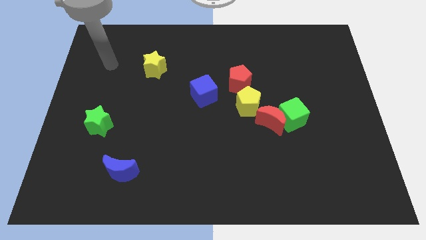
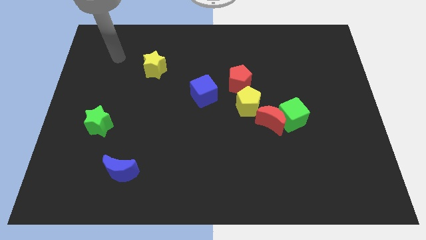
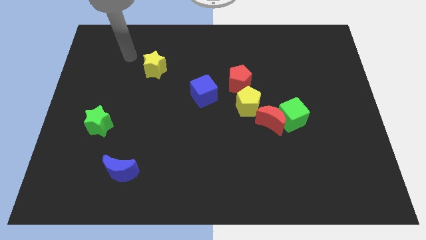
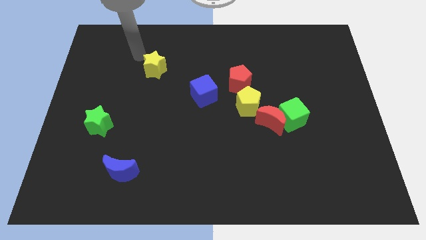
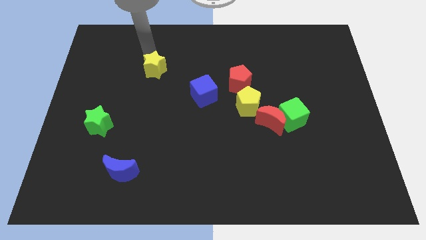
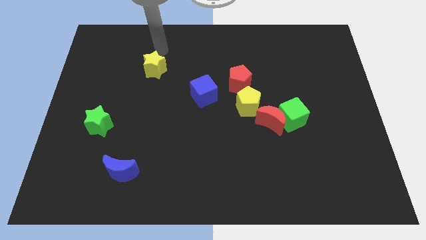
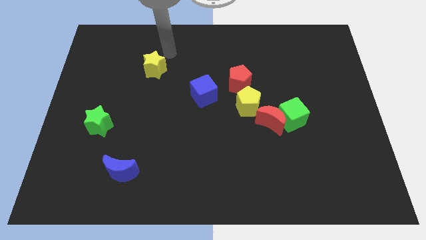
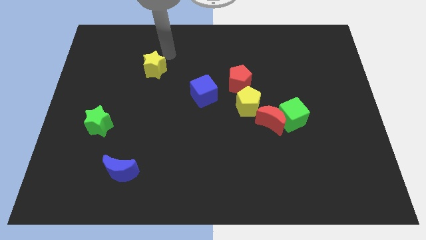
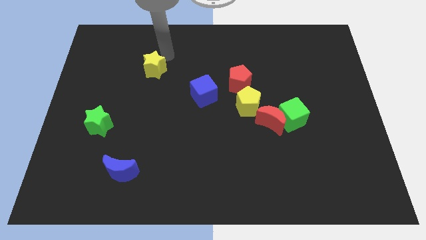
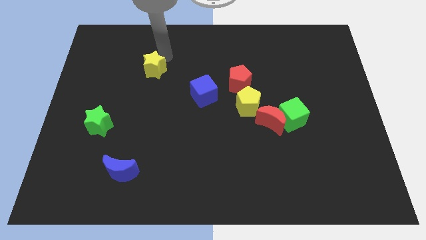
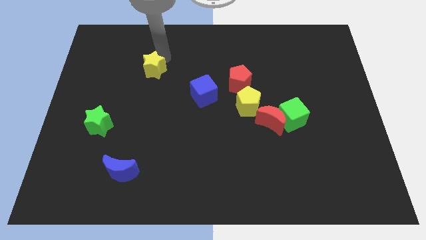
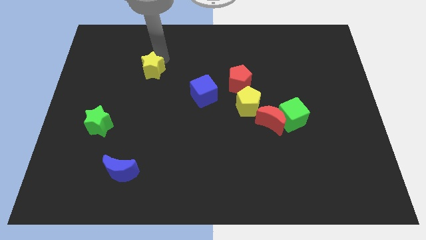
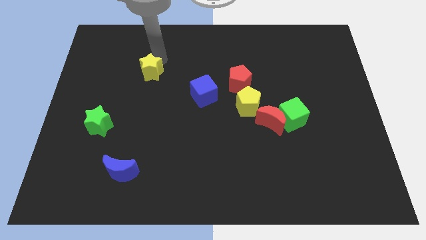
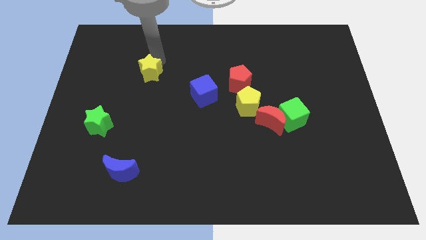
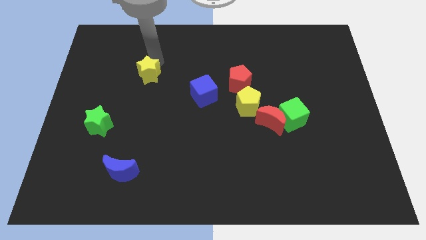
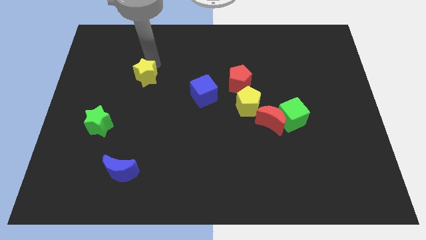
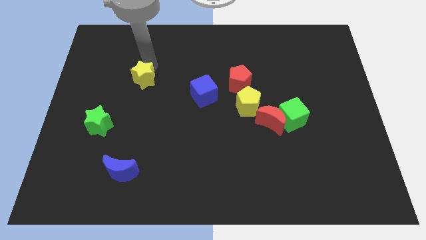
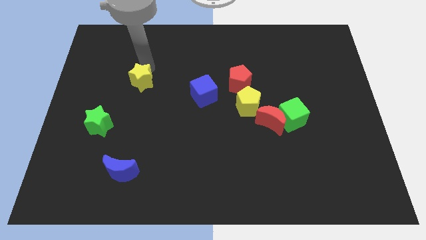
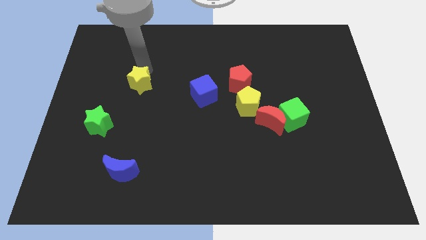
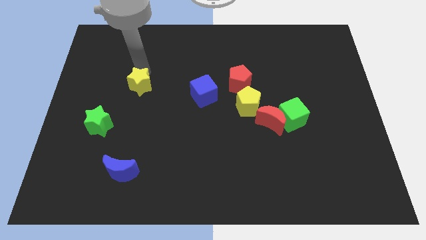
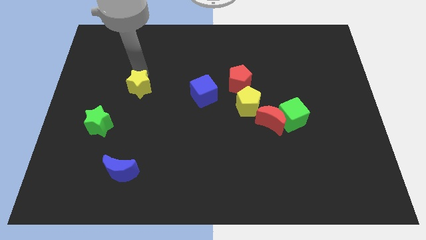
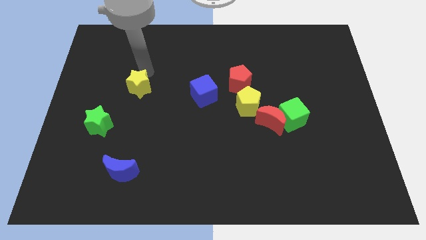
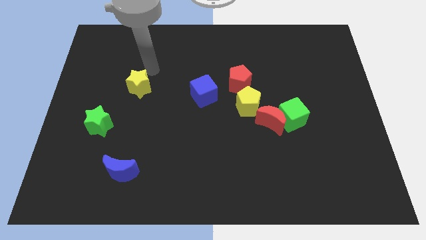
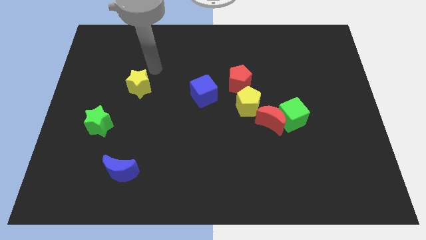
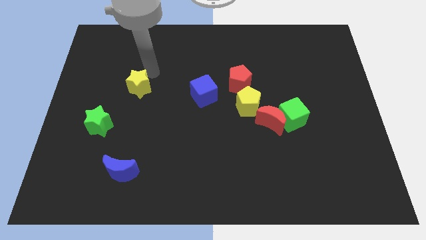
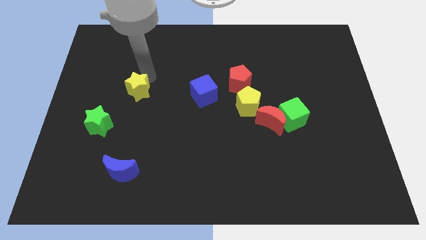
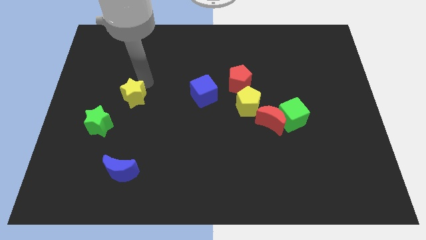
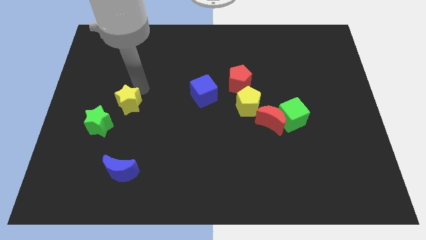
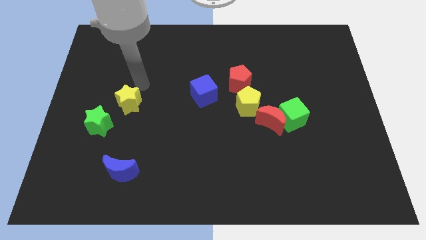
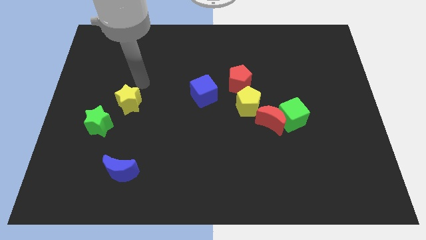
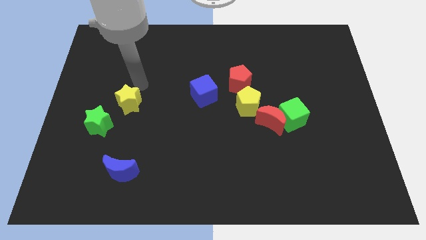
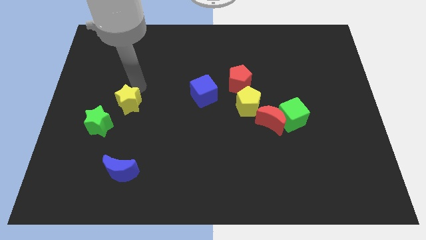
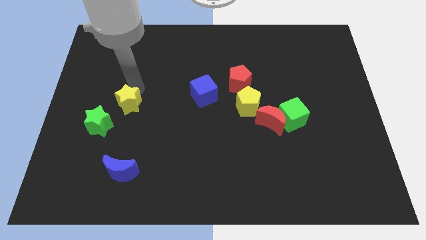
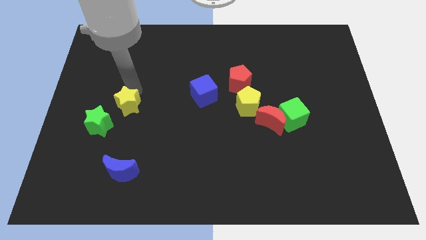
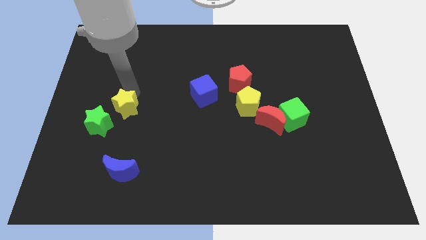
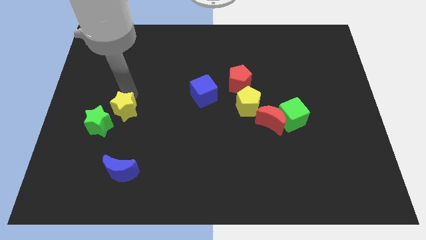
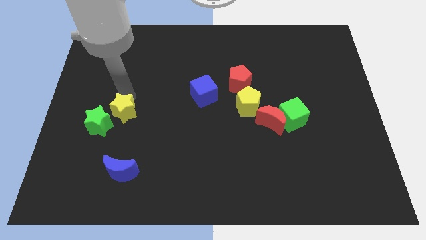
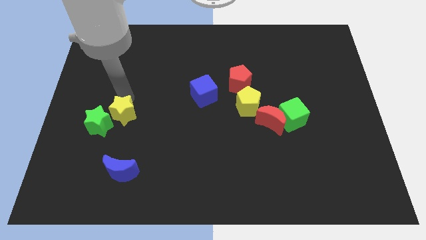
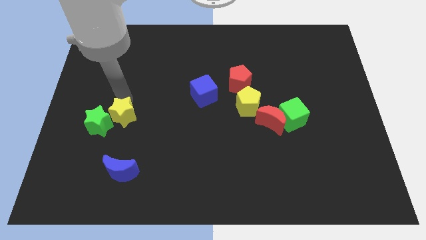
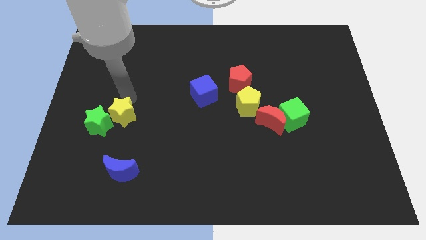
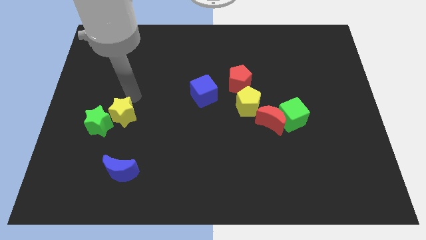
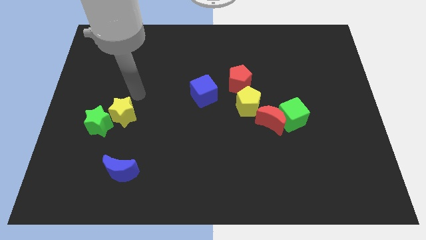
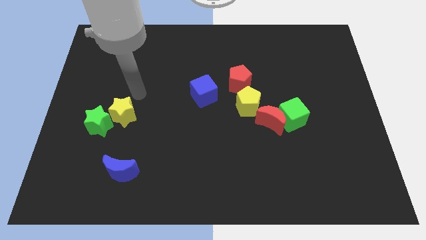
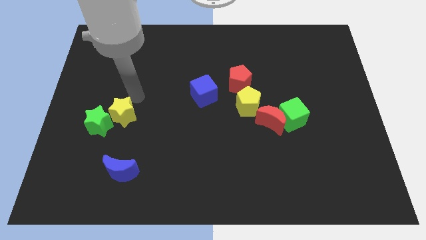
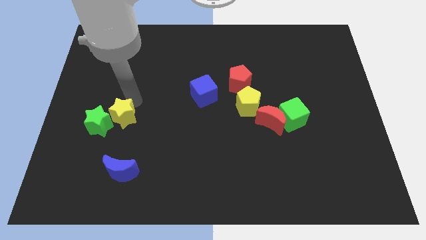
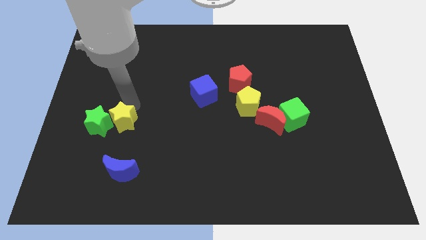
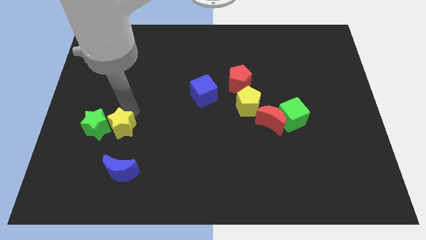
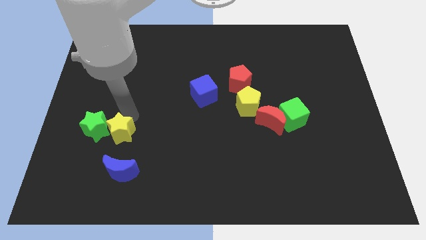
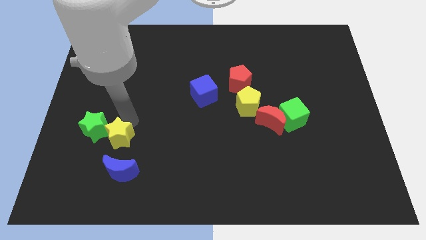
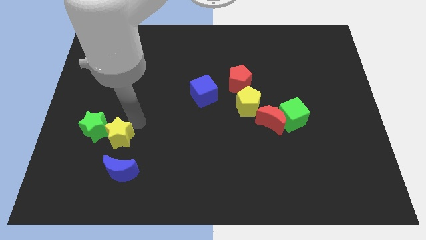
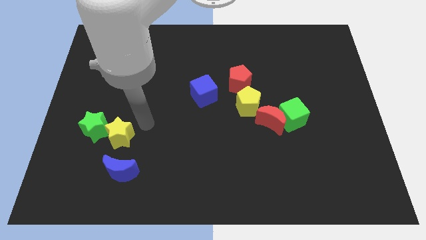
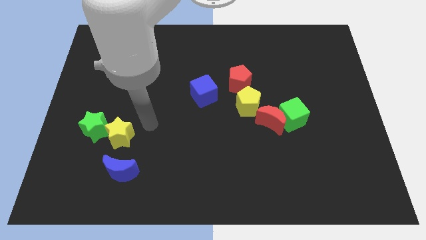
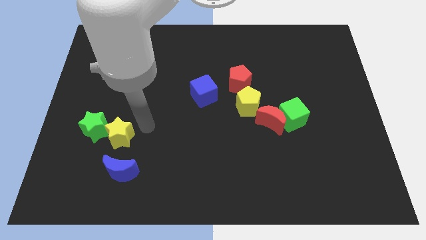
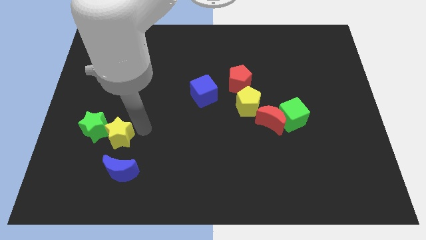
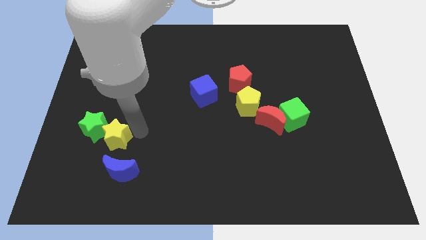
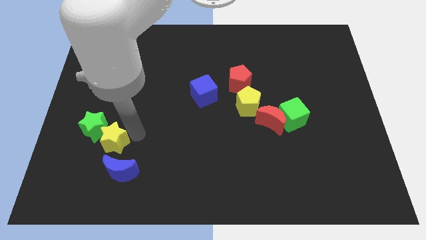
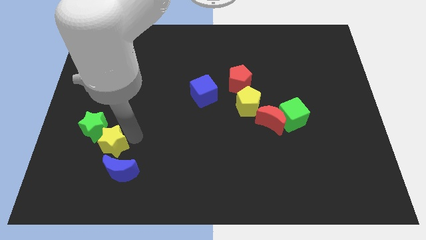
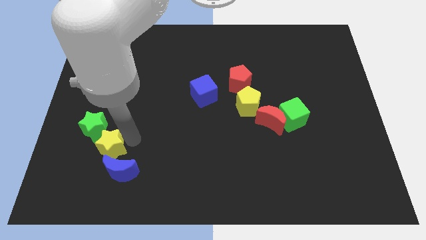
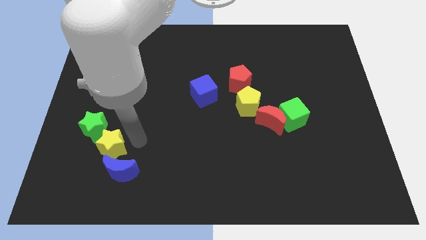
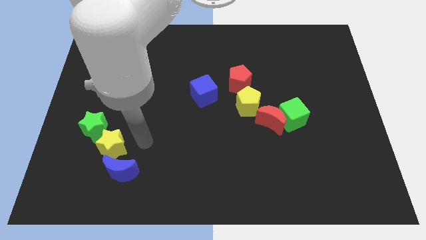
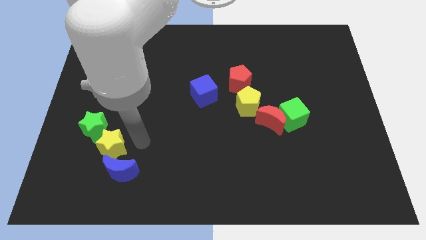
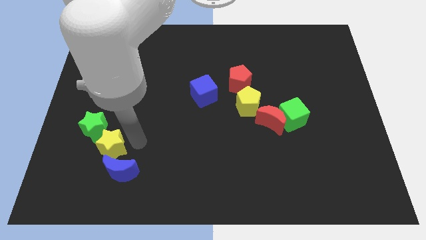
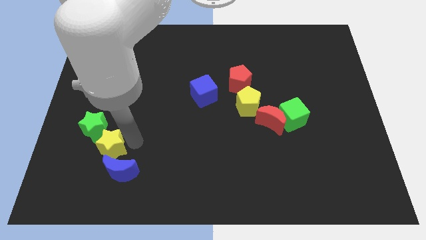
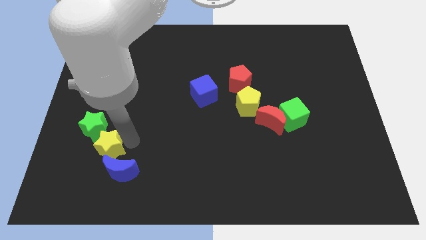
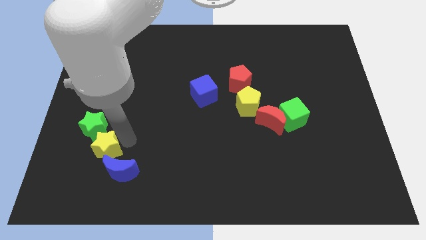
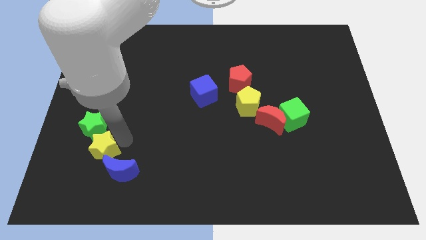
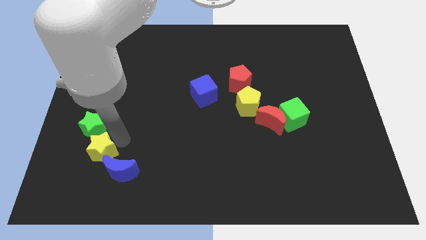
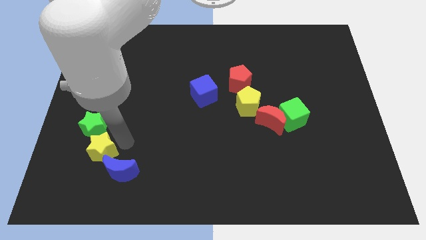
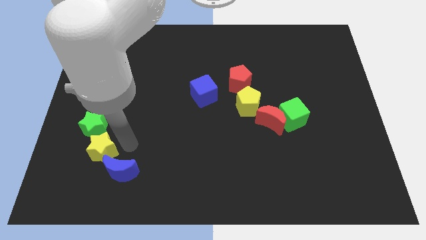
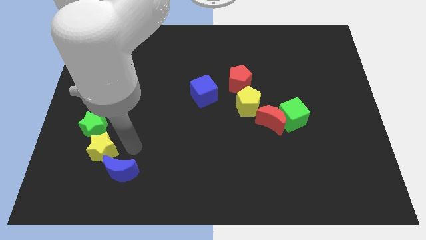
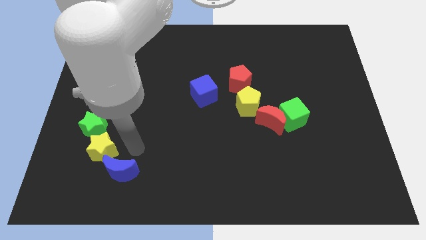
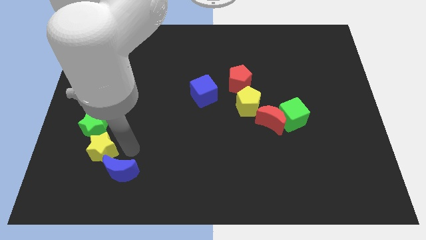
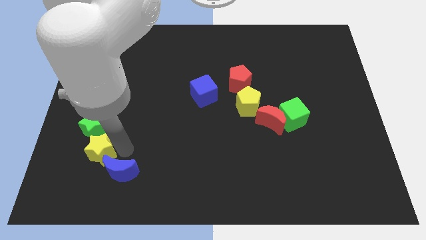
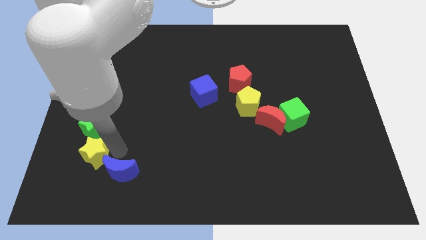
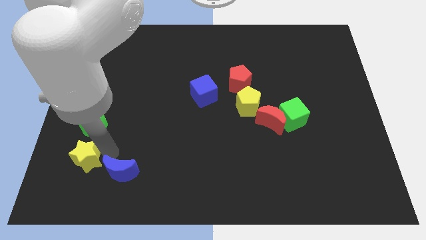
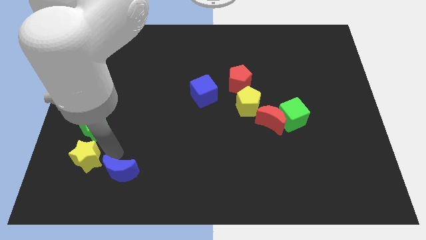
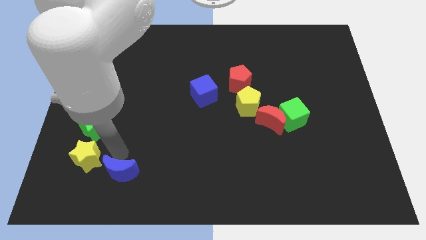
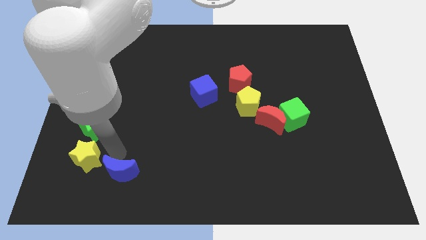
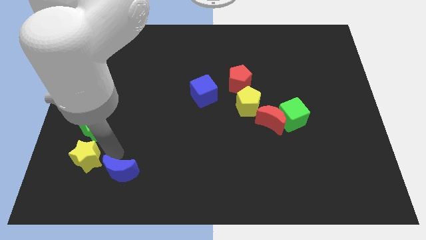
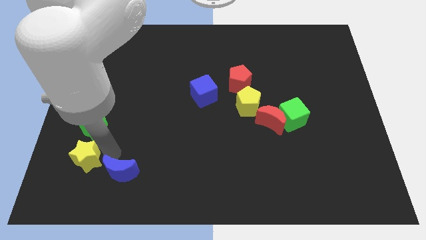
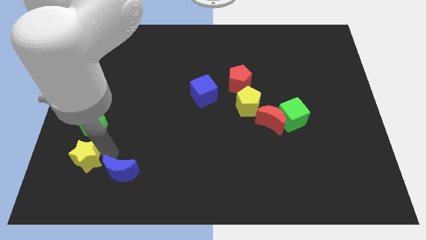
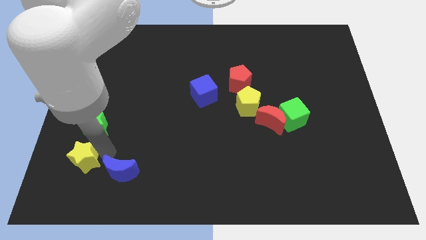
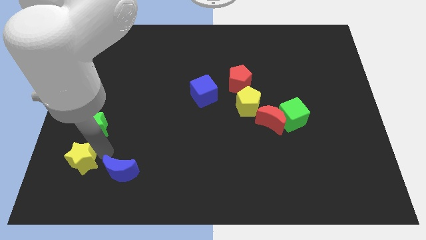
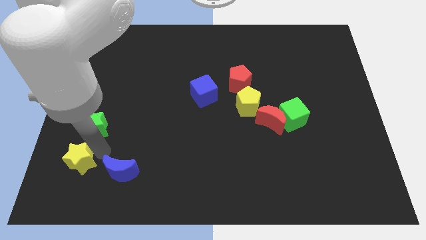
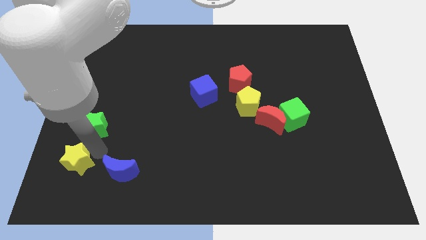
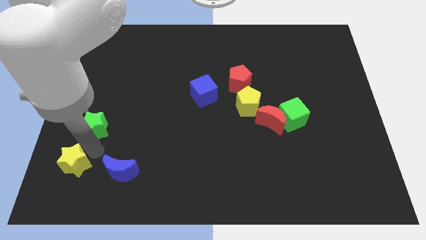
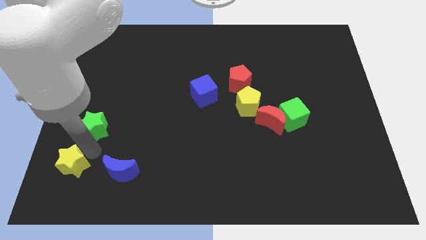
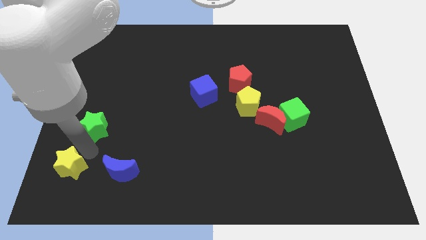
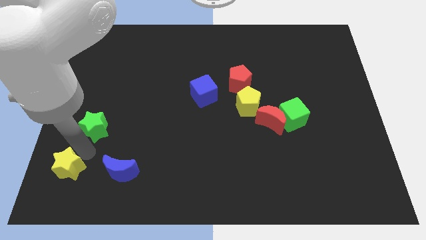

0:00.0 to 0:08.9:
put the yellow star to the bottom left corner
